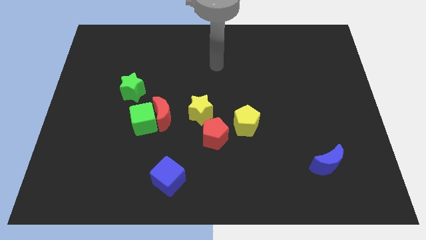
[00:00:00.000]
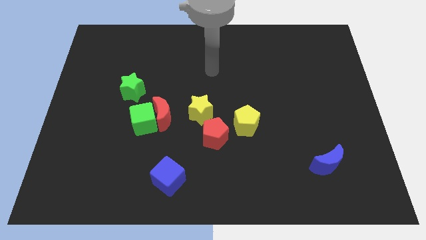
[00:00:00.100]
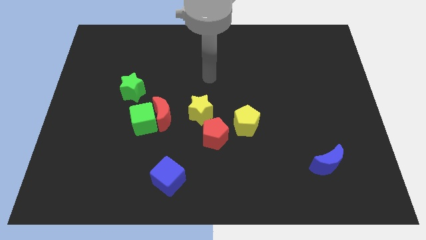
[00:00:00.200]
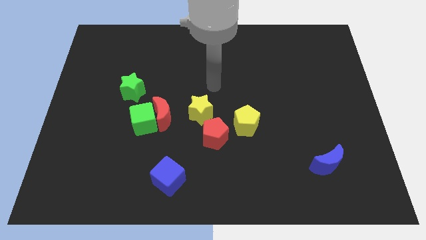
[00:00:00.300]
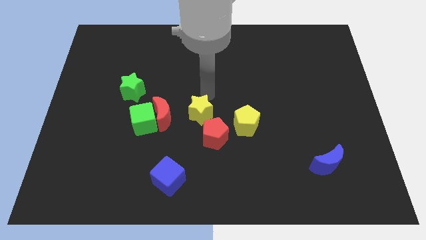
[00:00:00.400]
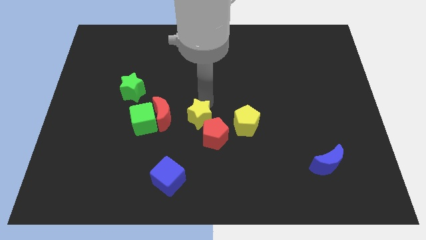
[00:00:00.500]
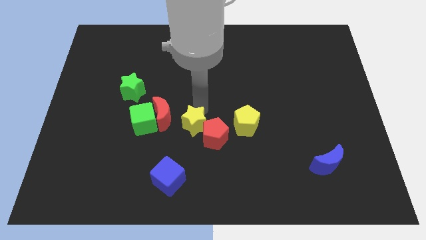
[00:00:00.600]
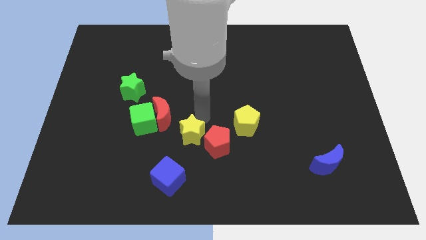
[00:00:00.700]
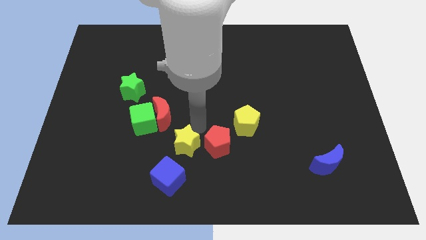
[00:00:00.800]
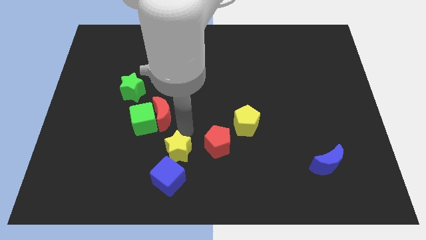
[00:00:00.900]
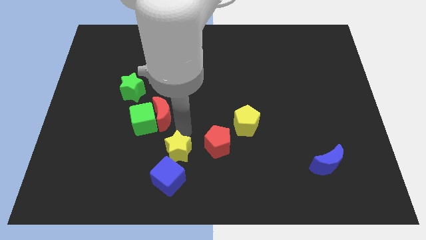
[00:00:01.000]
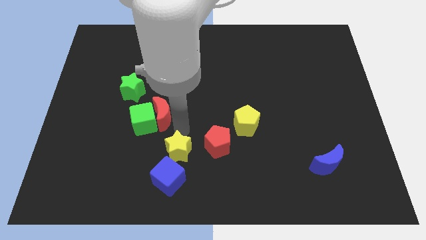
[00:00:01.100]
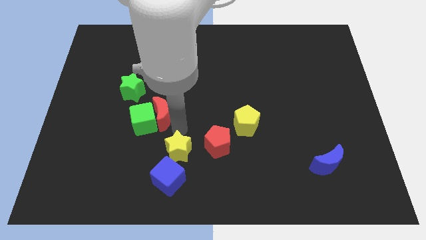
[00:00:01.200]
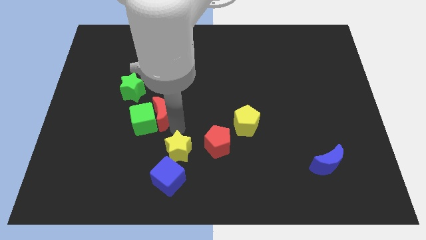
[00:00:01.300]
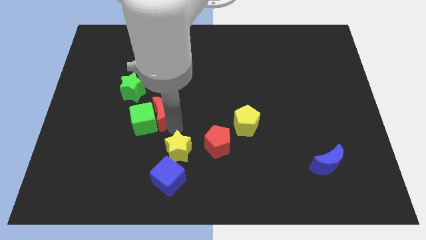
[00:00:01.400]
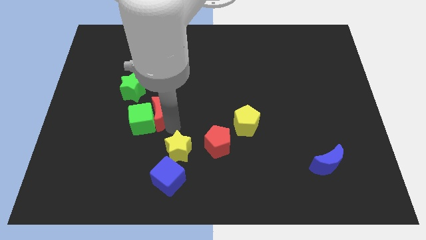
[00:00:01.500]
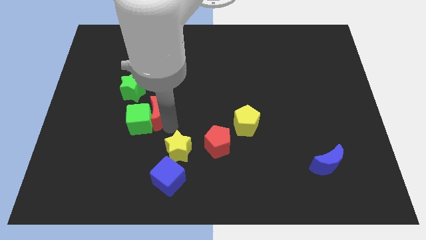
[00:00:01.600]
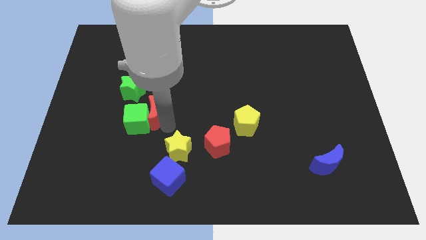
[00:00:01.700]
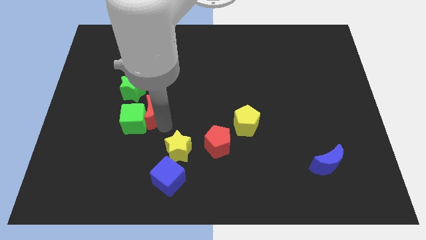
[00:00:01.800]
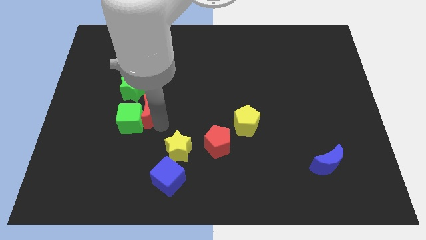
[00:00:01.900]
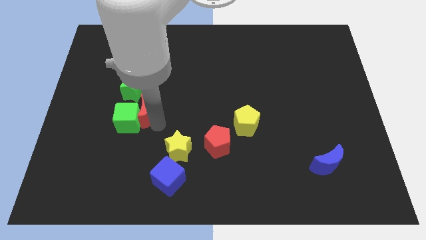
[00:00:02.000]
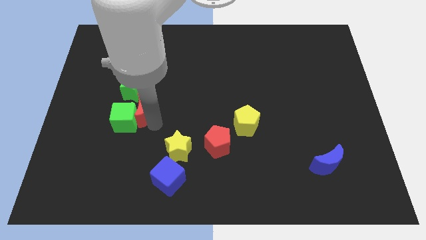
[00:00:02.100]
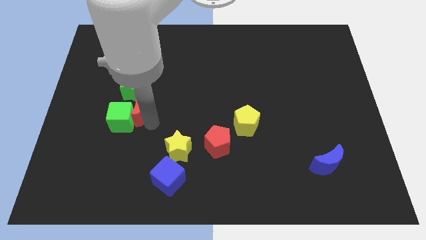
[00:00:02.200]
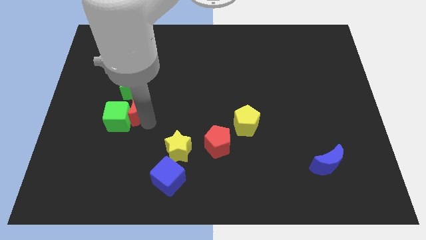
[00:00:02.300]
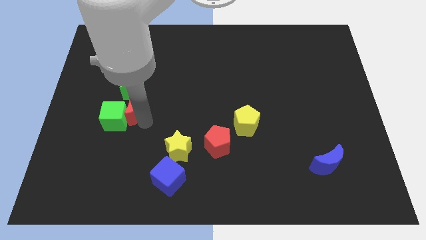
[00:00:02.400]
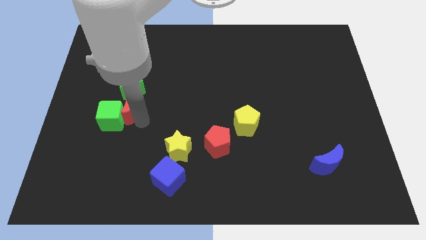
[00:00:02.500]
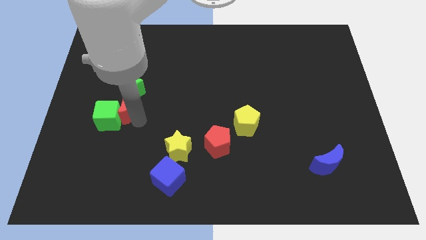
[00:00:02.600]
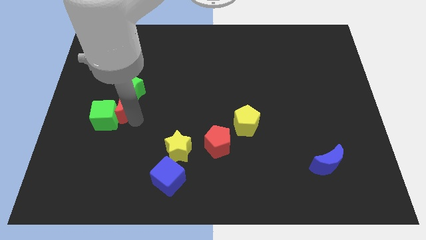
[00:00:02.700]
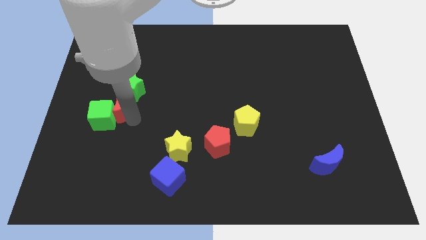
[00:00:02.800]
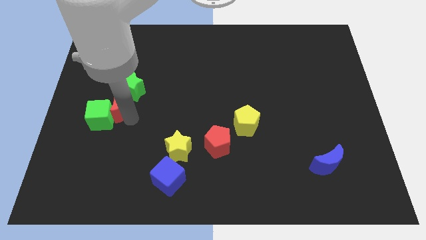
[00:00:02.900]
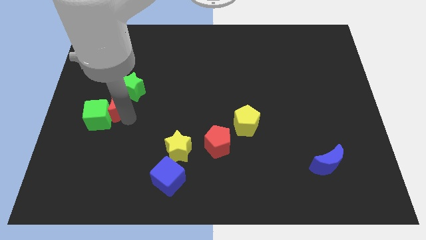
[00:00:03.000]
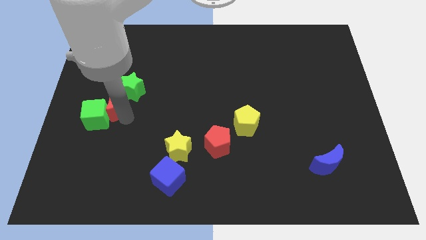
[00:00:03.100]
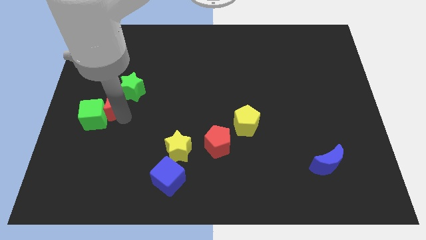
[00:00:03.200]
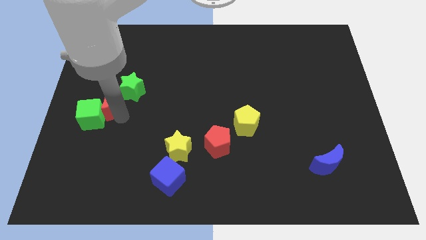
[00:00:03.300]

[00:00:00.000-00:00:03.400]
pull the red moon apart from the green cube and yellow star

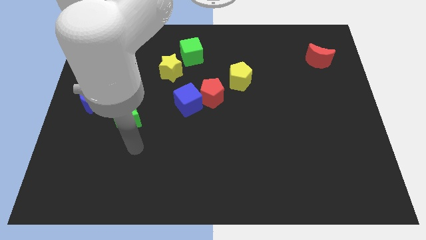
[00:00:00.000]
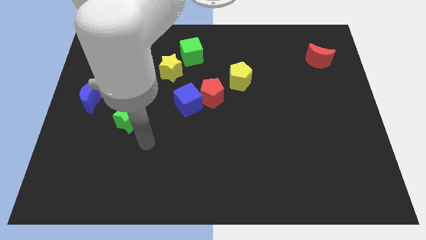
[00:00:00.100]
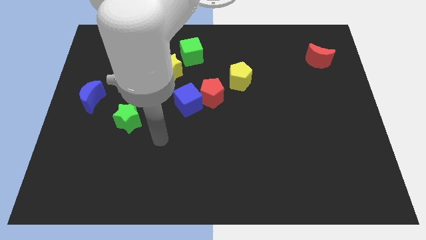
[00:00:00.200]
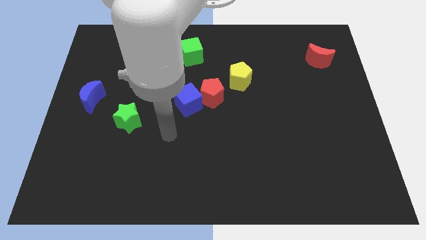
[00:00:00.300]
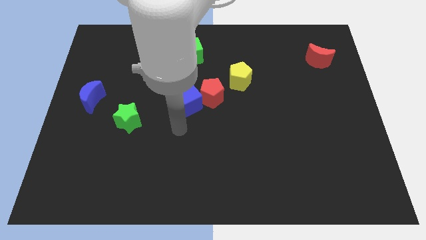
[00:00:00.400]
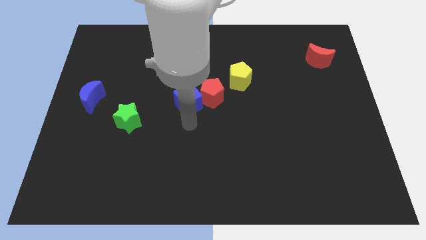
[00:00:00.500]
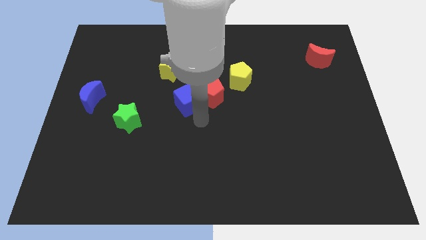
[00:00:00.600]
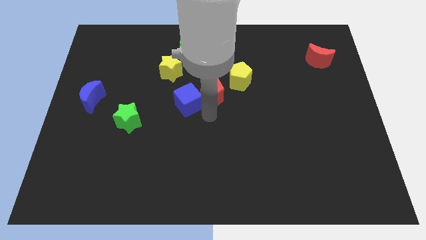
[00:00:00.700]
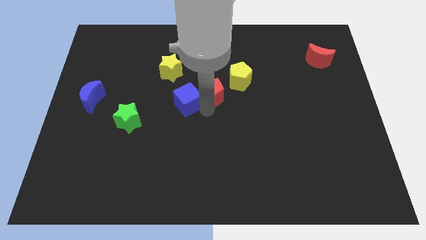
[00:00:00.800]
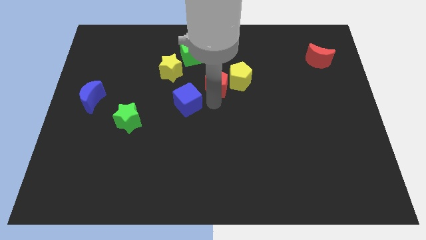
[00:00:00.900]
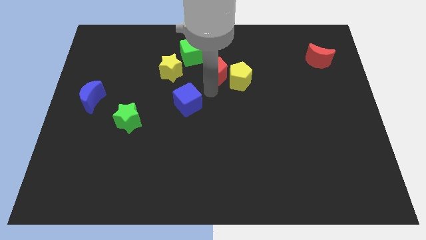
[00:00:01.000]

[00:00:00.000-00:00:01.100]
move the blue cube away from the red pentagon

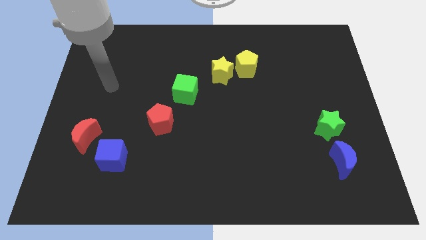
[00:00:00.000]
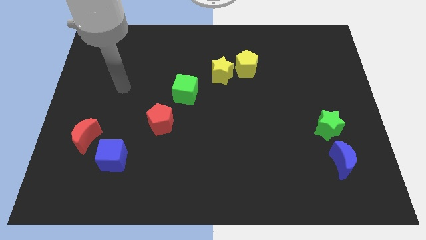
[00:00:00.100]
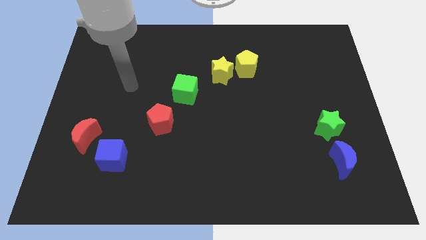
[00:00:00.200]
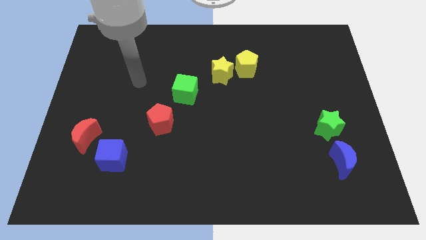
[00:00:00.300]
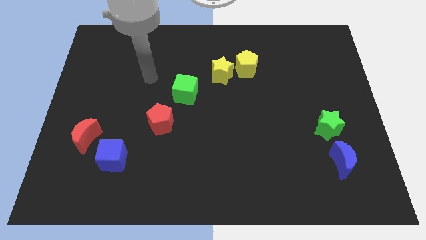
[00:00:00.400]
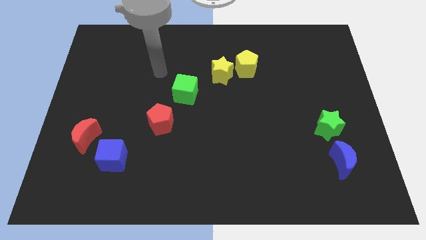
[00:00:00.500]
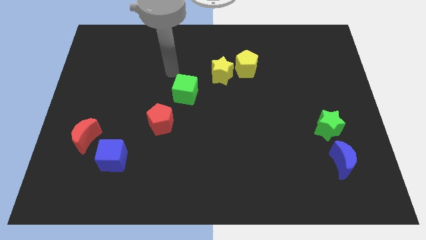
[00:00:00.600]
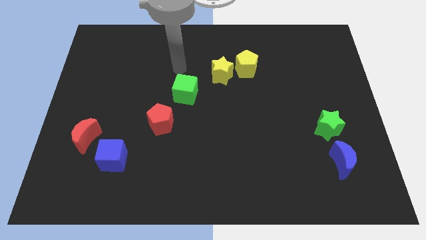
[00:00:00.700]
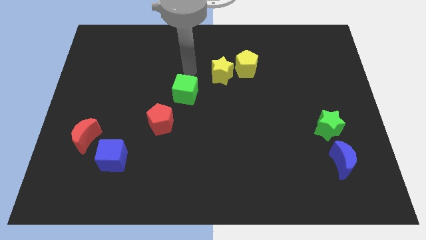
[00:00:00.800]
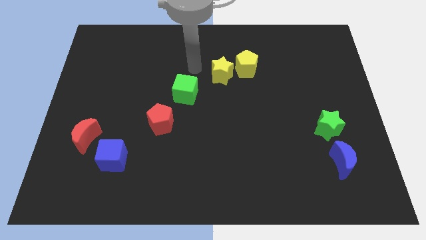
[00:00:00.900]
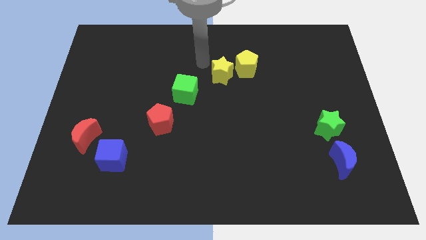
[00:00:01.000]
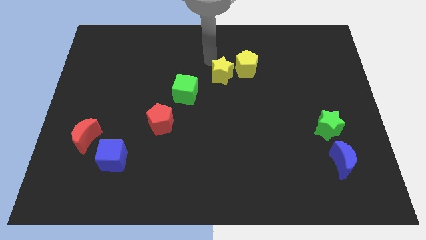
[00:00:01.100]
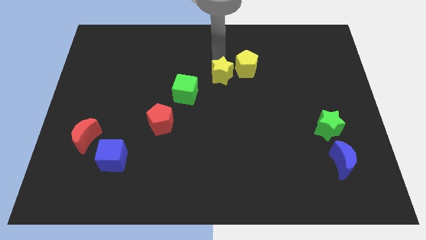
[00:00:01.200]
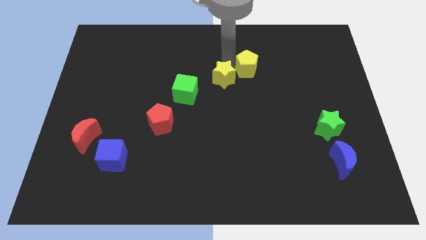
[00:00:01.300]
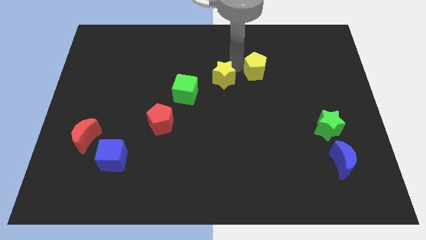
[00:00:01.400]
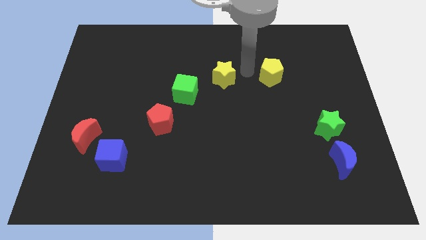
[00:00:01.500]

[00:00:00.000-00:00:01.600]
separate the yellow star from the yellow pentagon

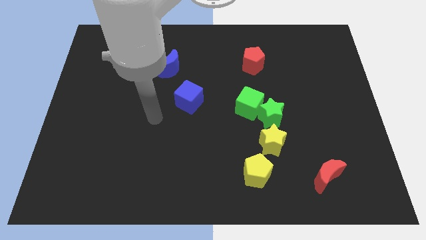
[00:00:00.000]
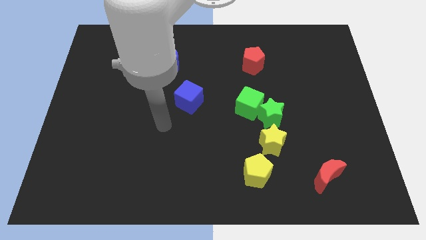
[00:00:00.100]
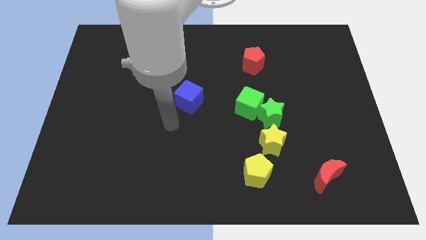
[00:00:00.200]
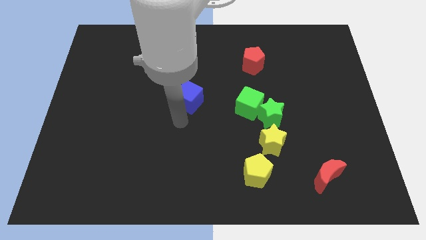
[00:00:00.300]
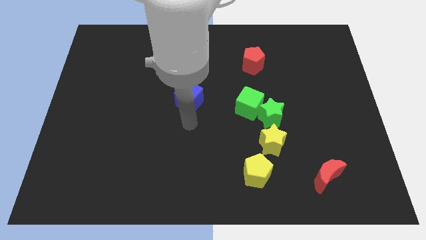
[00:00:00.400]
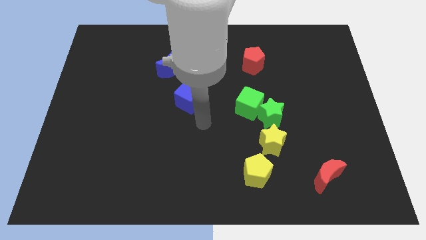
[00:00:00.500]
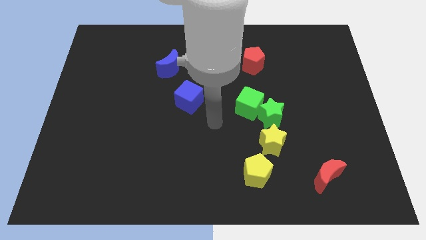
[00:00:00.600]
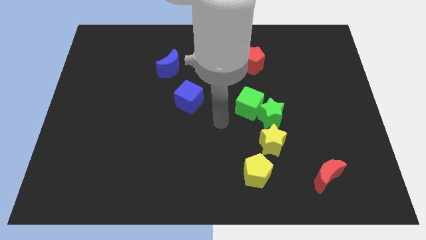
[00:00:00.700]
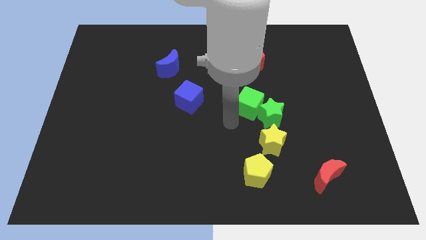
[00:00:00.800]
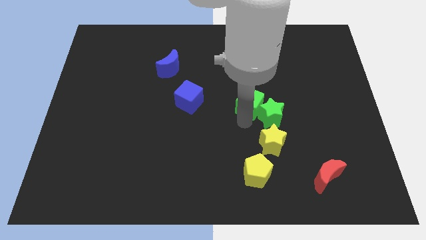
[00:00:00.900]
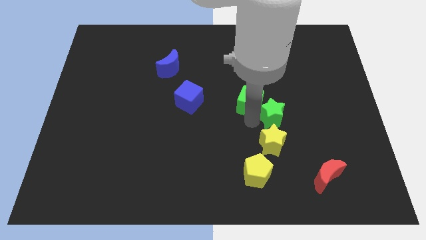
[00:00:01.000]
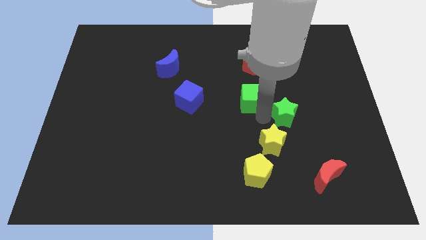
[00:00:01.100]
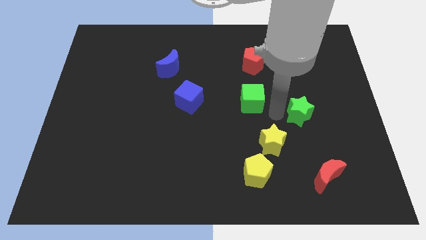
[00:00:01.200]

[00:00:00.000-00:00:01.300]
move the green cube away from the green star

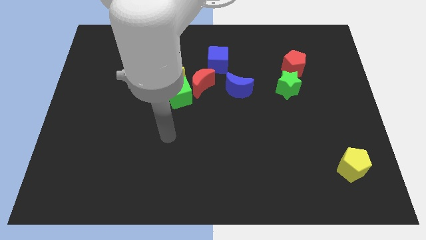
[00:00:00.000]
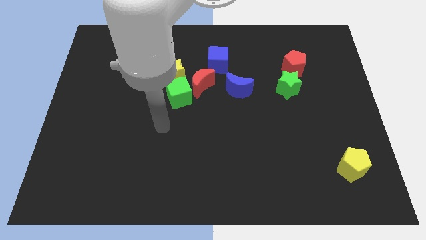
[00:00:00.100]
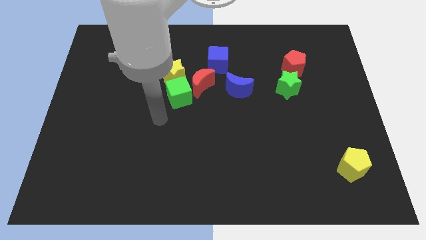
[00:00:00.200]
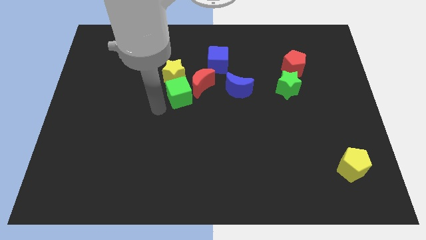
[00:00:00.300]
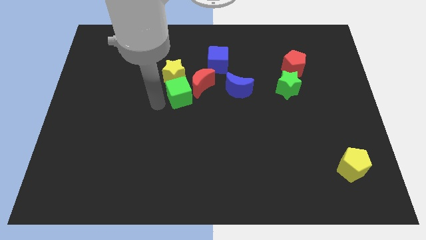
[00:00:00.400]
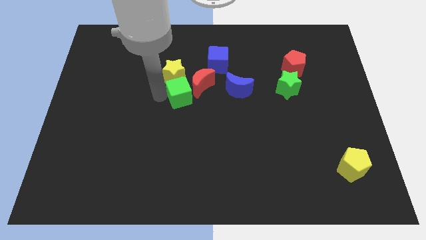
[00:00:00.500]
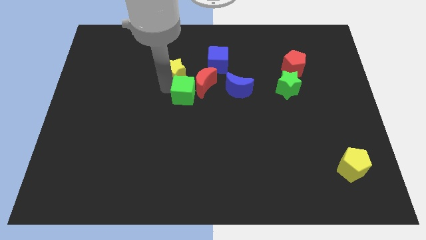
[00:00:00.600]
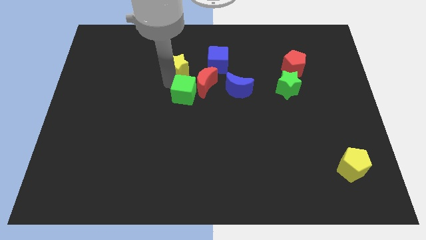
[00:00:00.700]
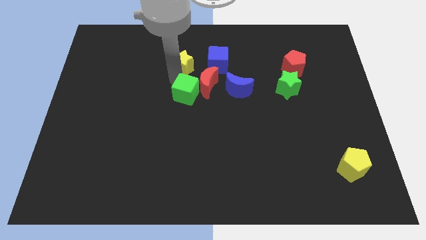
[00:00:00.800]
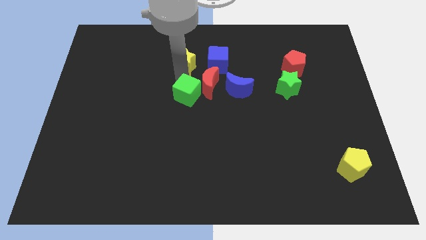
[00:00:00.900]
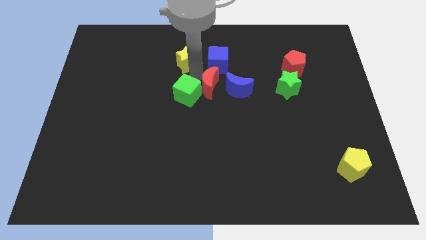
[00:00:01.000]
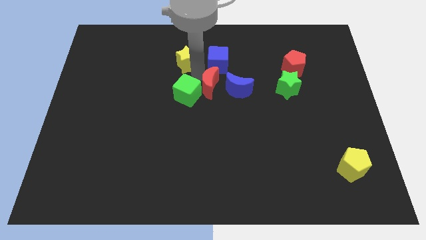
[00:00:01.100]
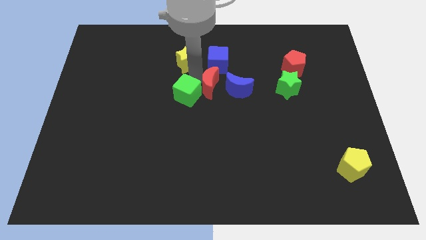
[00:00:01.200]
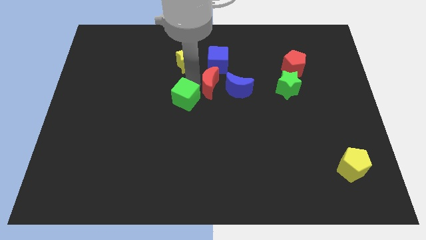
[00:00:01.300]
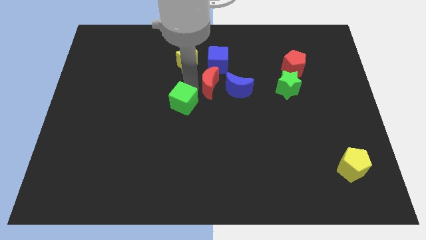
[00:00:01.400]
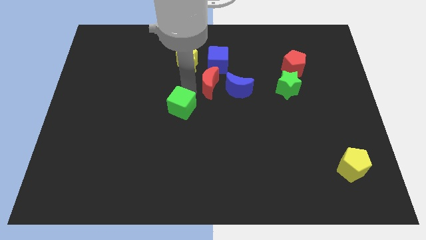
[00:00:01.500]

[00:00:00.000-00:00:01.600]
pull the green cube apart from the red moon and yellow star

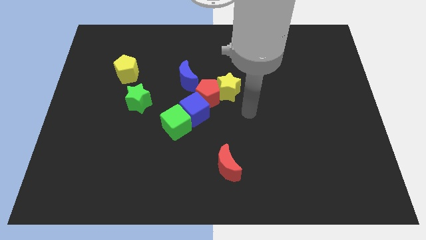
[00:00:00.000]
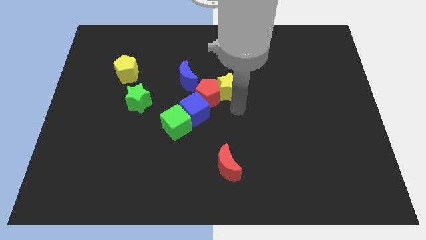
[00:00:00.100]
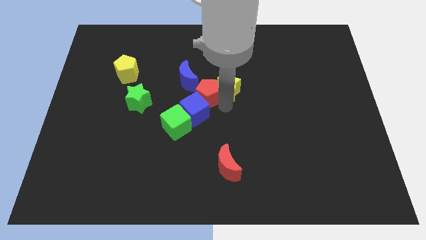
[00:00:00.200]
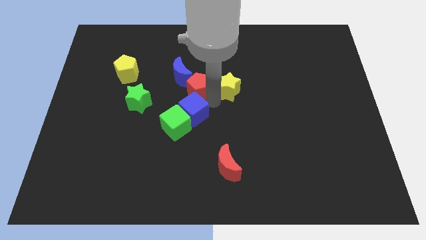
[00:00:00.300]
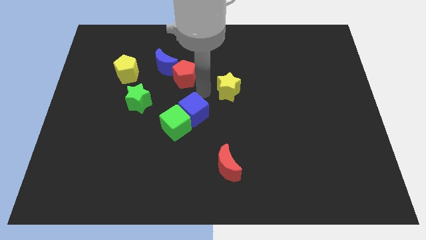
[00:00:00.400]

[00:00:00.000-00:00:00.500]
move the yellow star away from the red pentagon
